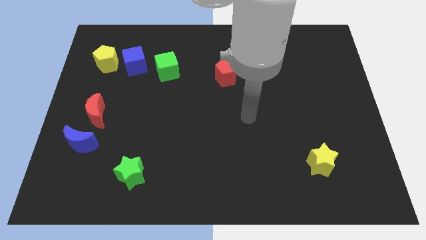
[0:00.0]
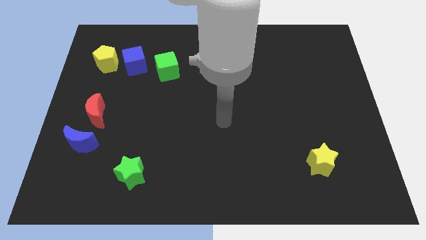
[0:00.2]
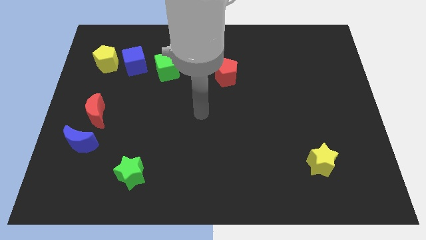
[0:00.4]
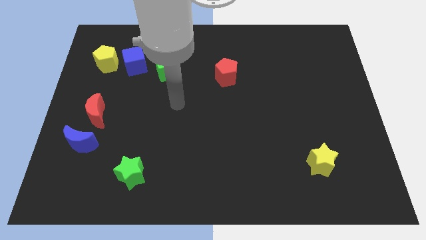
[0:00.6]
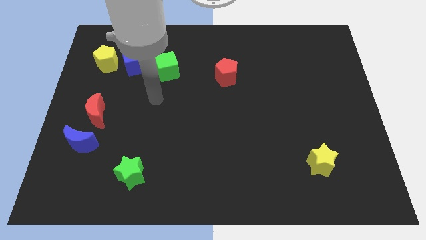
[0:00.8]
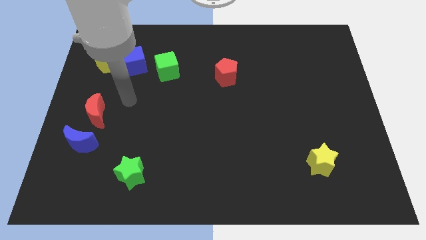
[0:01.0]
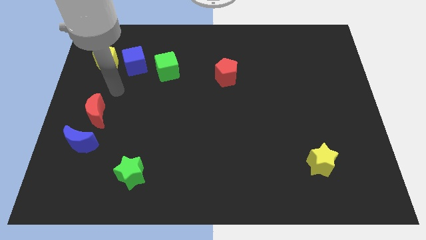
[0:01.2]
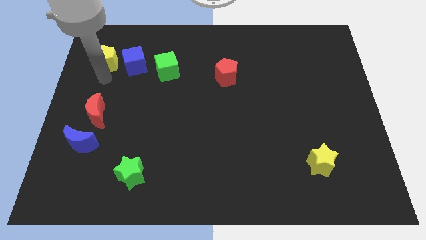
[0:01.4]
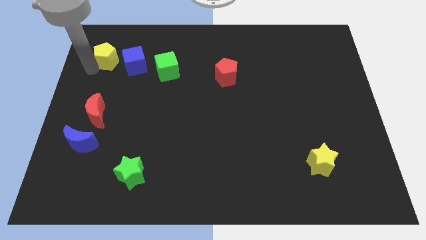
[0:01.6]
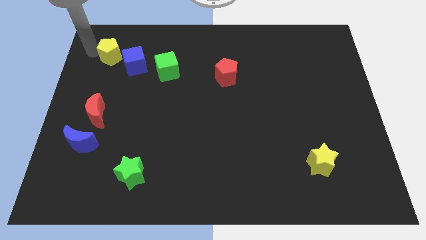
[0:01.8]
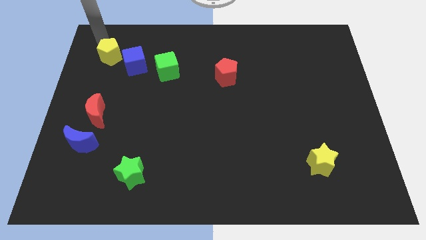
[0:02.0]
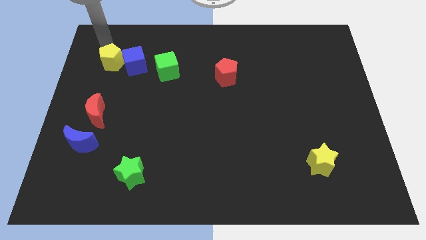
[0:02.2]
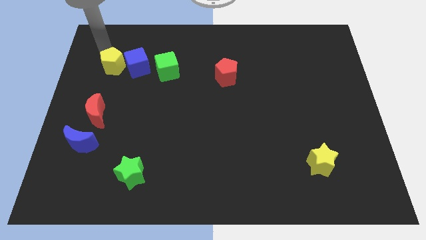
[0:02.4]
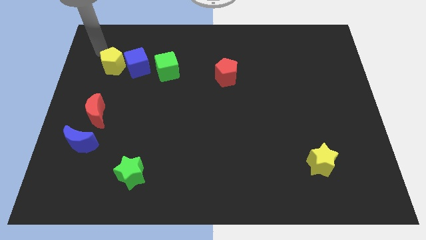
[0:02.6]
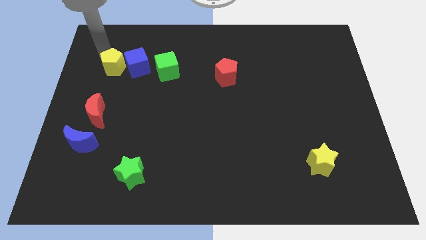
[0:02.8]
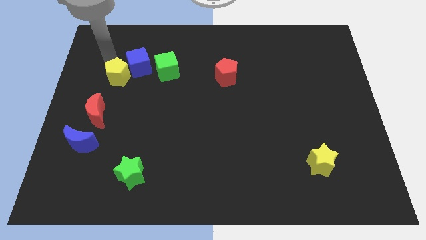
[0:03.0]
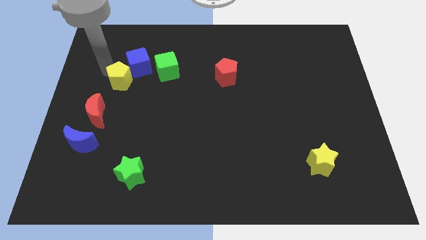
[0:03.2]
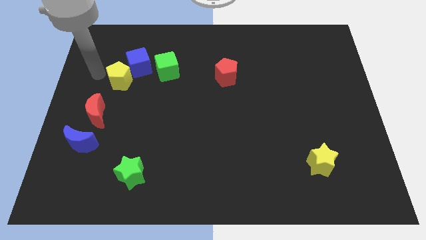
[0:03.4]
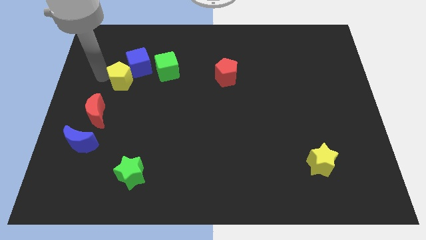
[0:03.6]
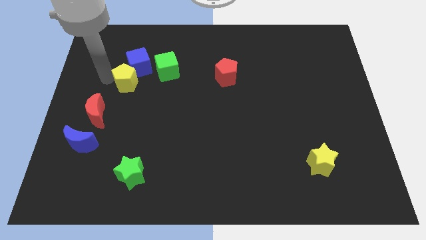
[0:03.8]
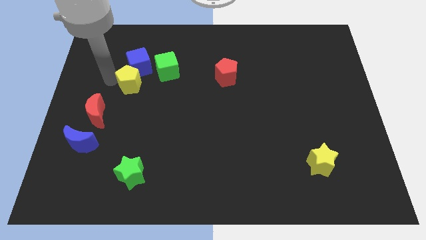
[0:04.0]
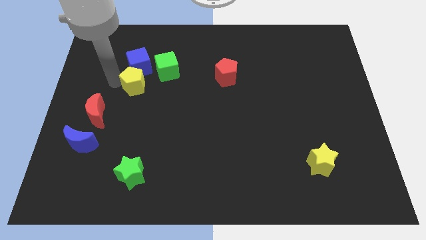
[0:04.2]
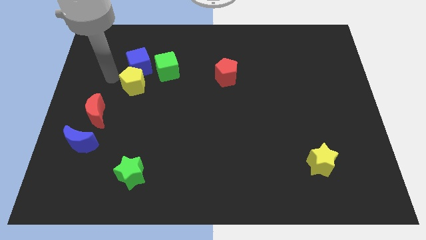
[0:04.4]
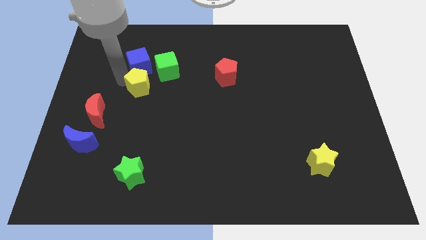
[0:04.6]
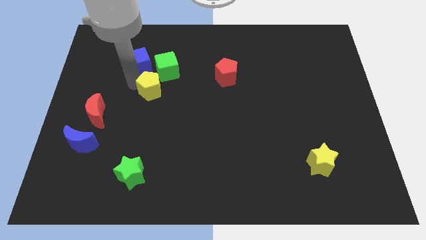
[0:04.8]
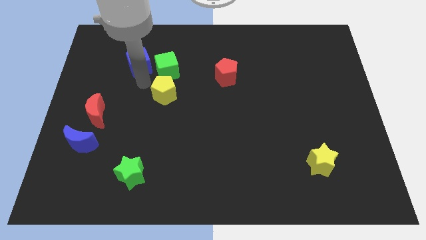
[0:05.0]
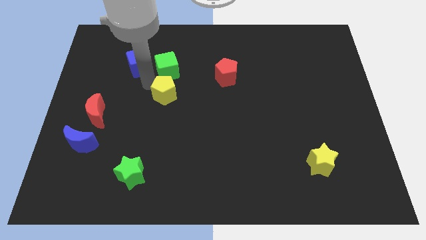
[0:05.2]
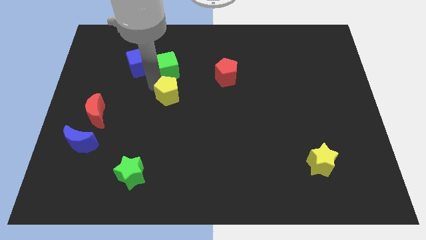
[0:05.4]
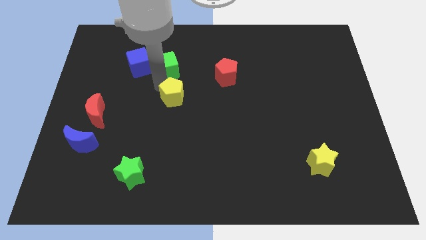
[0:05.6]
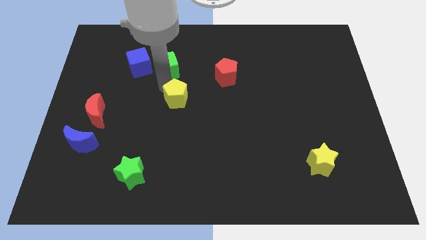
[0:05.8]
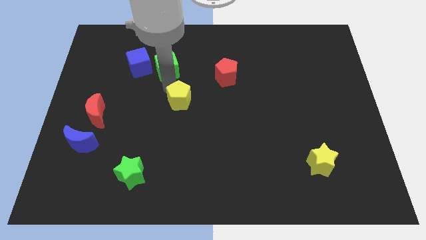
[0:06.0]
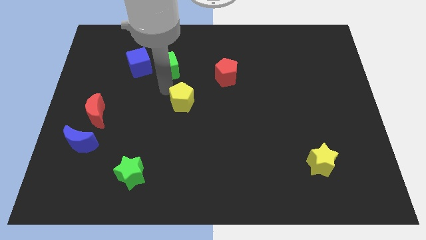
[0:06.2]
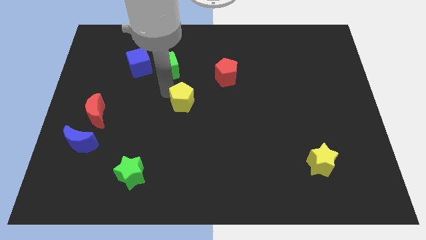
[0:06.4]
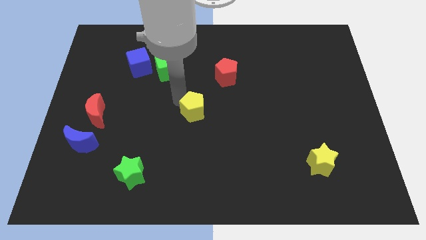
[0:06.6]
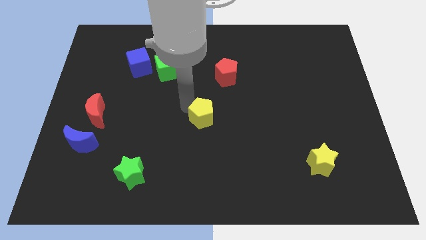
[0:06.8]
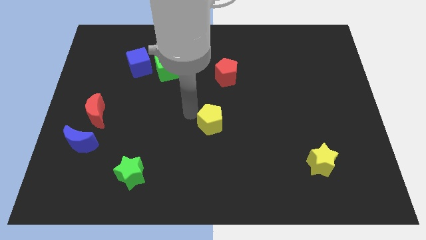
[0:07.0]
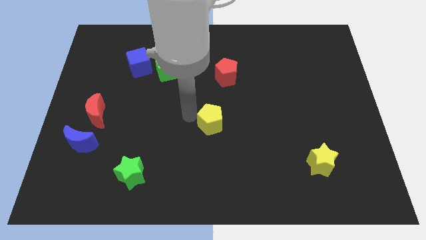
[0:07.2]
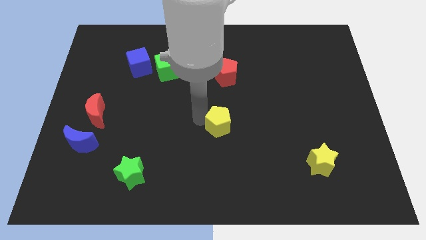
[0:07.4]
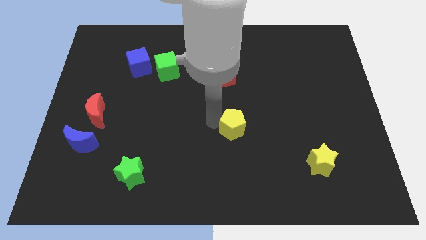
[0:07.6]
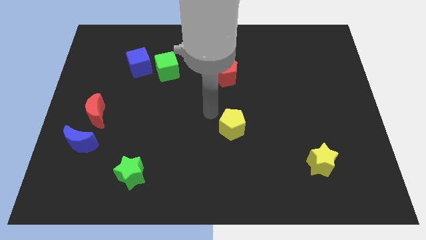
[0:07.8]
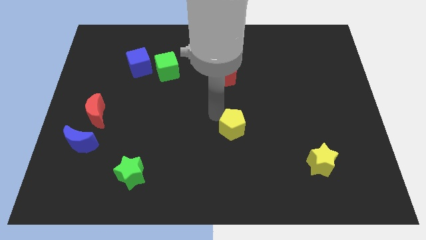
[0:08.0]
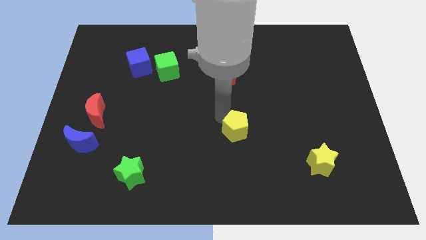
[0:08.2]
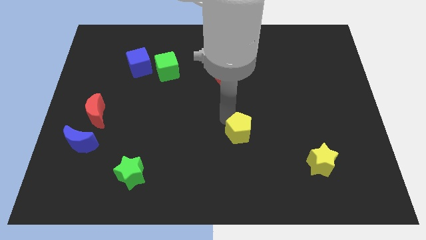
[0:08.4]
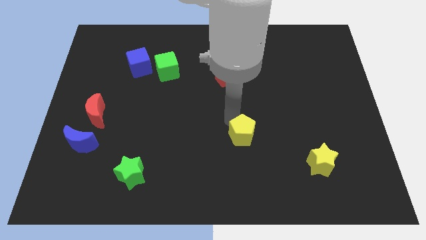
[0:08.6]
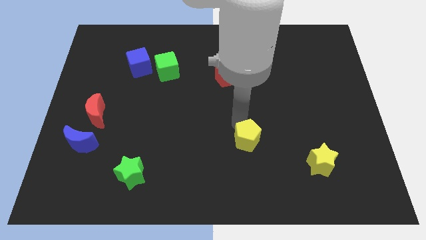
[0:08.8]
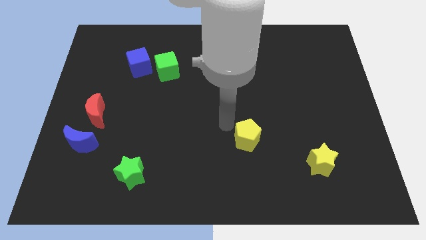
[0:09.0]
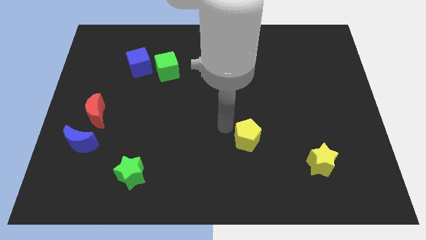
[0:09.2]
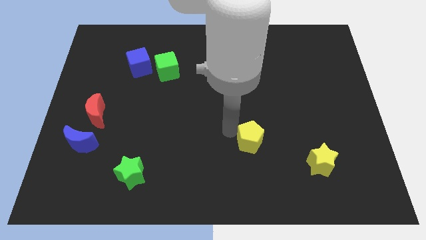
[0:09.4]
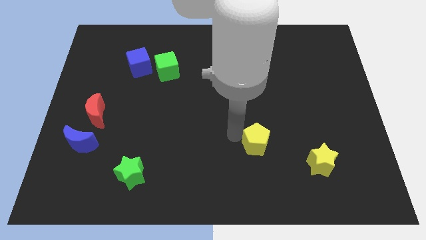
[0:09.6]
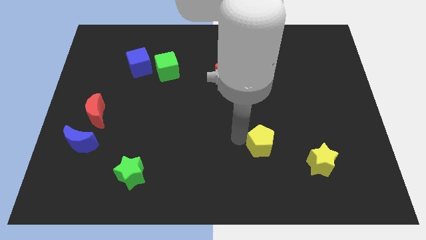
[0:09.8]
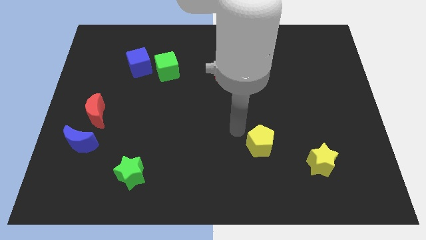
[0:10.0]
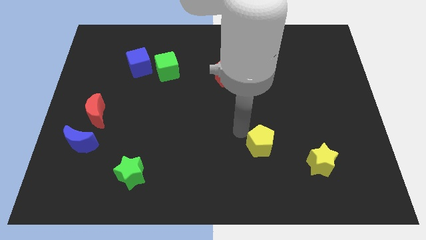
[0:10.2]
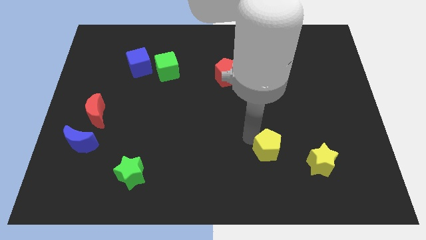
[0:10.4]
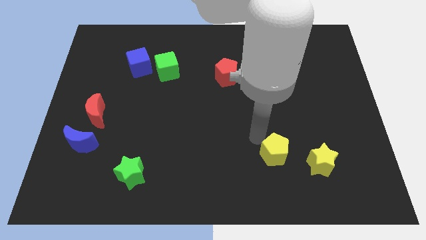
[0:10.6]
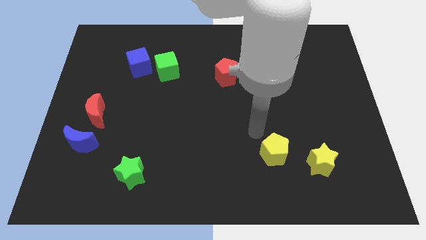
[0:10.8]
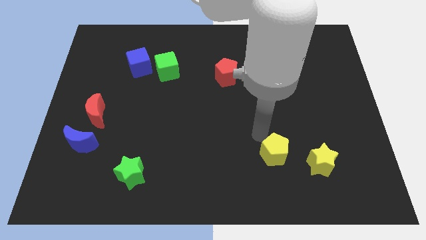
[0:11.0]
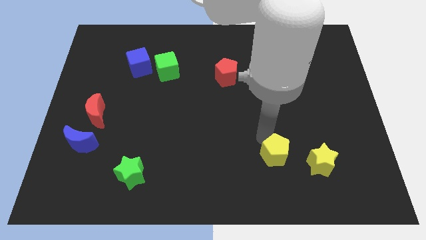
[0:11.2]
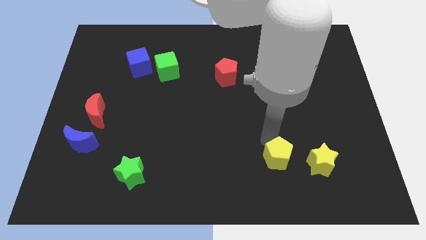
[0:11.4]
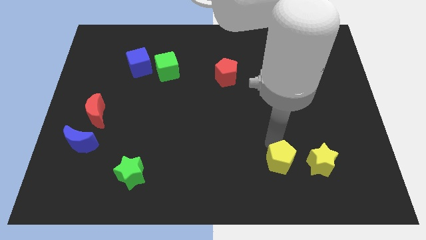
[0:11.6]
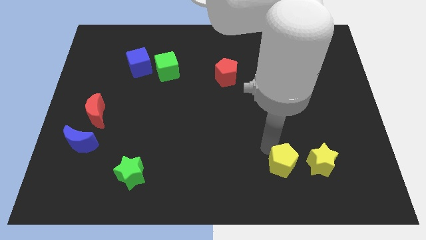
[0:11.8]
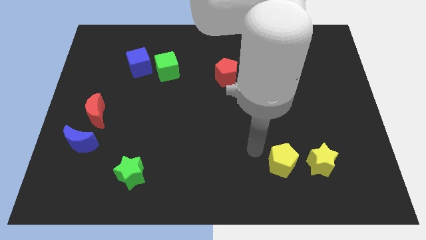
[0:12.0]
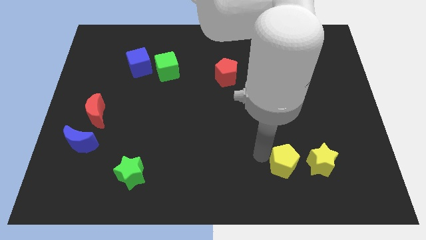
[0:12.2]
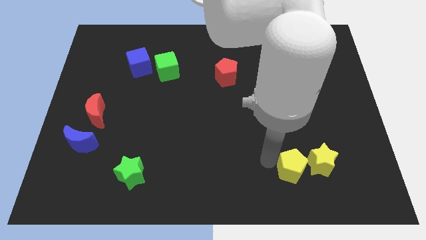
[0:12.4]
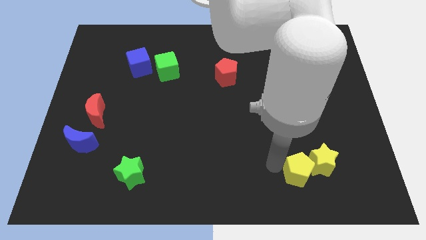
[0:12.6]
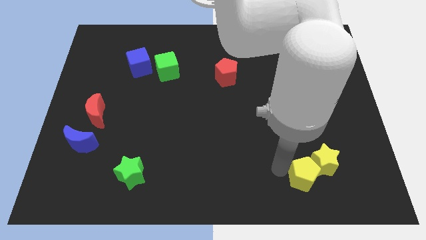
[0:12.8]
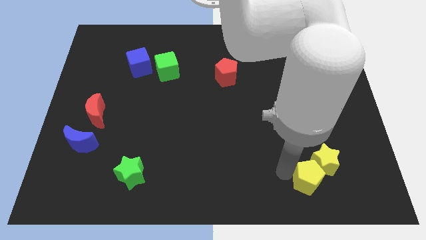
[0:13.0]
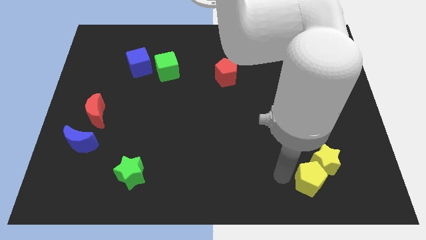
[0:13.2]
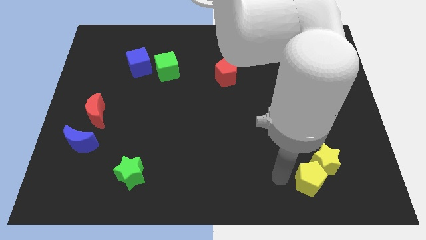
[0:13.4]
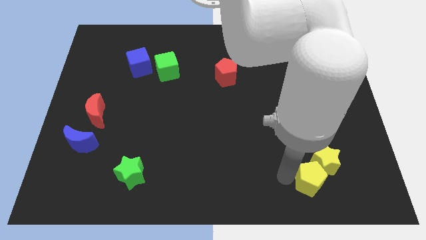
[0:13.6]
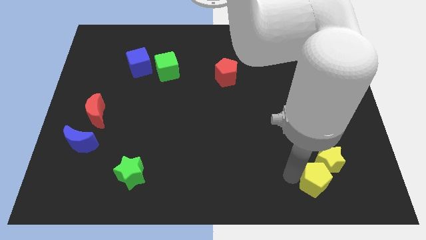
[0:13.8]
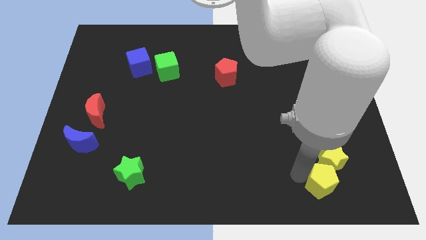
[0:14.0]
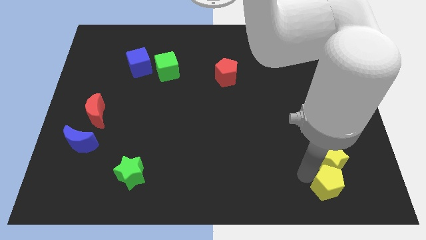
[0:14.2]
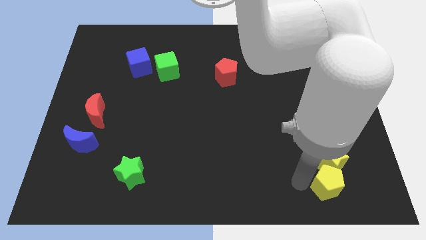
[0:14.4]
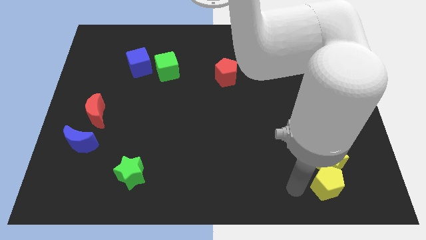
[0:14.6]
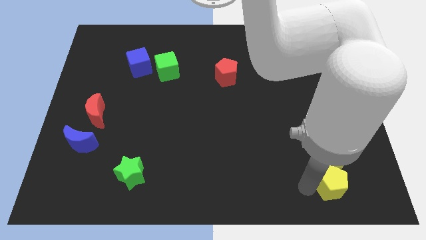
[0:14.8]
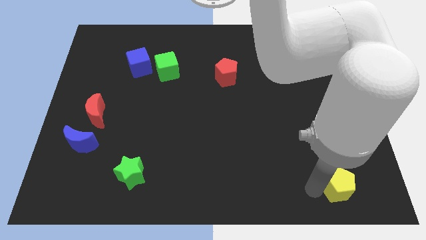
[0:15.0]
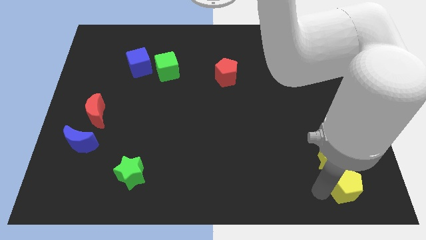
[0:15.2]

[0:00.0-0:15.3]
put the yellow pentagon to the lower right corner
